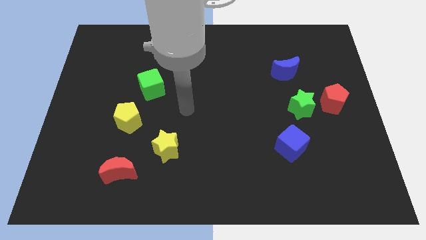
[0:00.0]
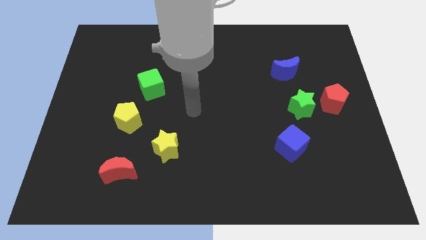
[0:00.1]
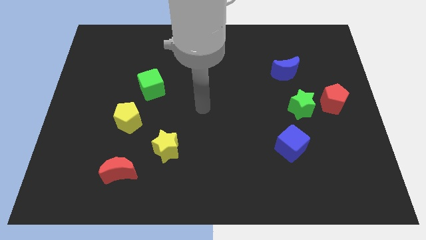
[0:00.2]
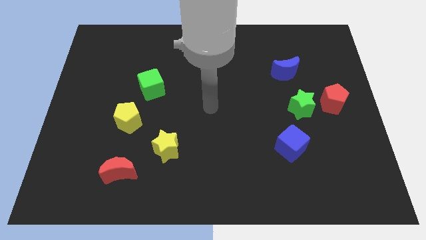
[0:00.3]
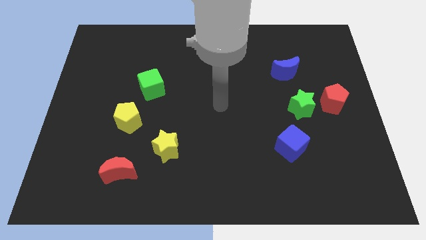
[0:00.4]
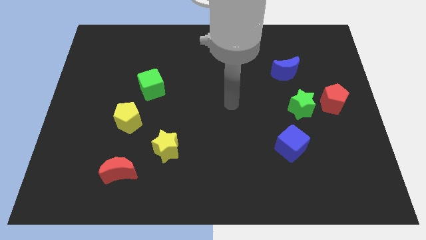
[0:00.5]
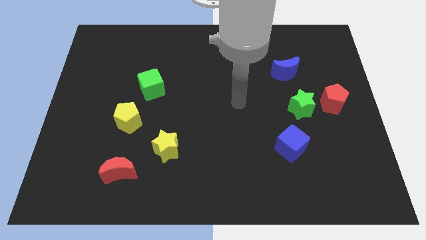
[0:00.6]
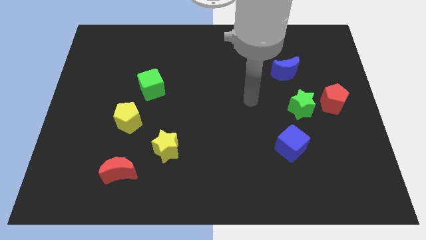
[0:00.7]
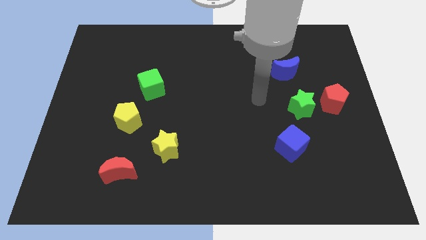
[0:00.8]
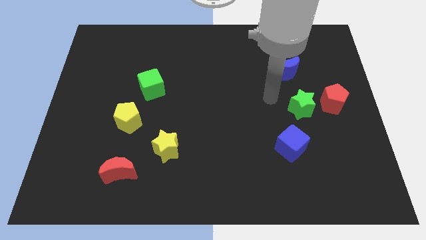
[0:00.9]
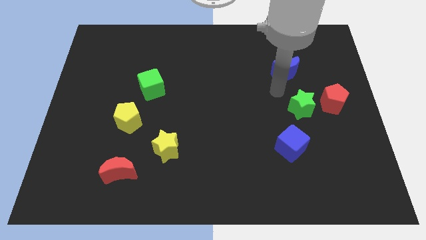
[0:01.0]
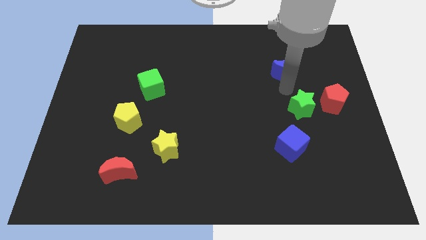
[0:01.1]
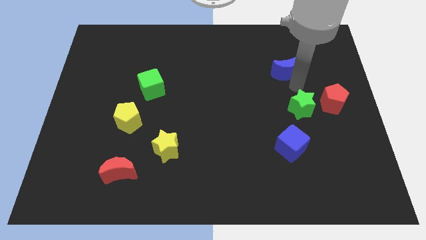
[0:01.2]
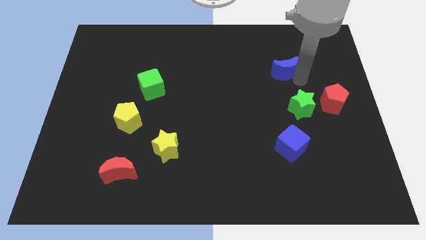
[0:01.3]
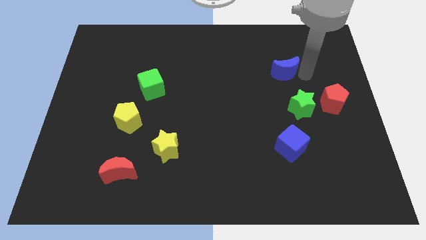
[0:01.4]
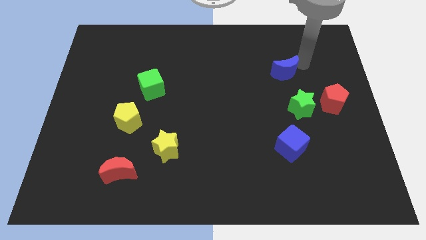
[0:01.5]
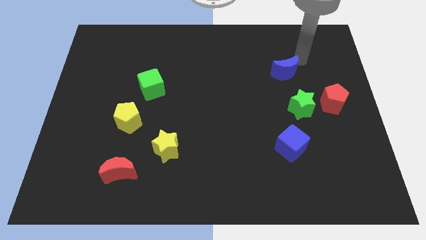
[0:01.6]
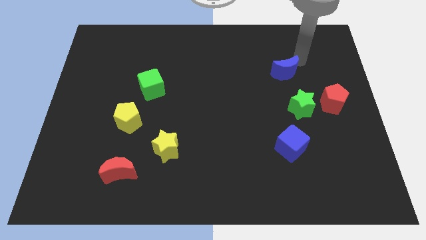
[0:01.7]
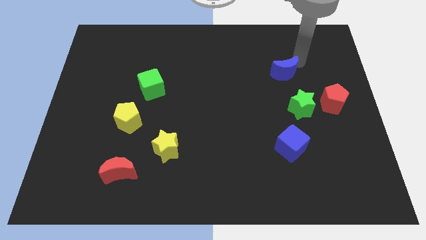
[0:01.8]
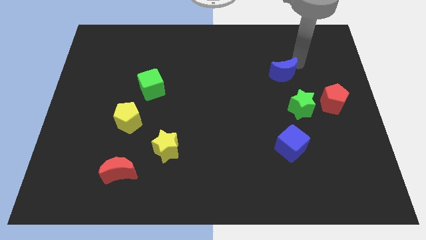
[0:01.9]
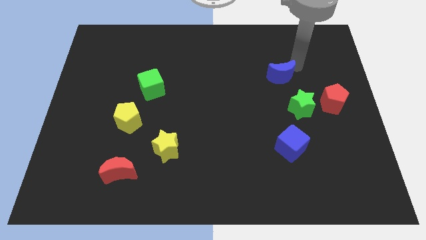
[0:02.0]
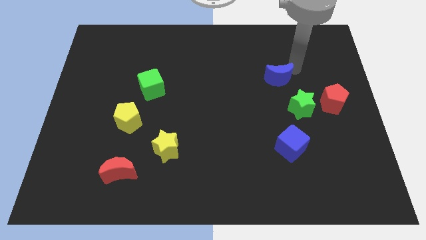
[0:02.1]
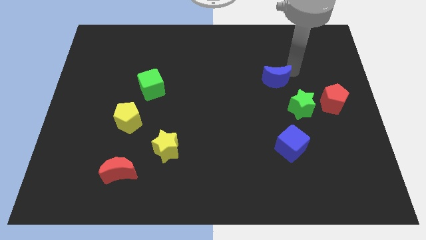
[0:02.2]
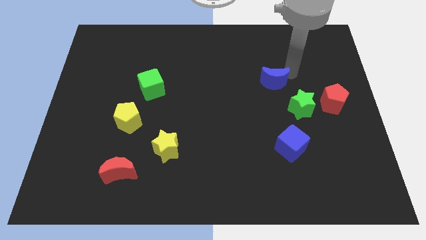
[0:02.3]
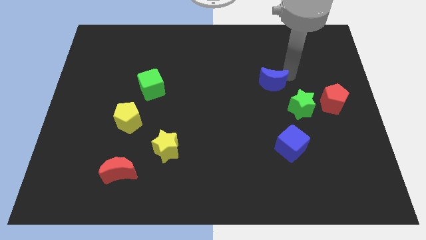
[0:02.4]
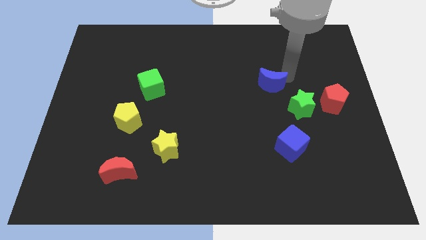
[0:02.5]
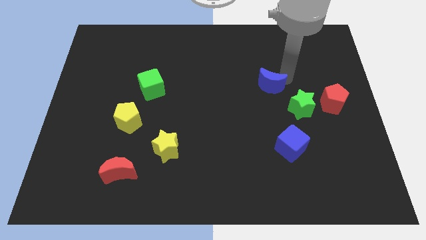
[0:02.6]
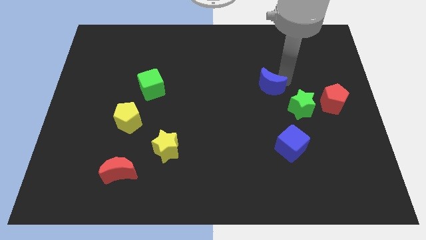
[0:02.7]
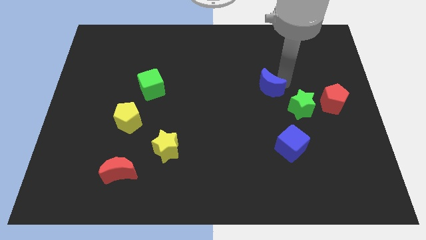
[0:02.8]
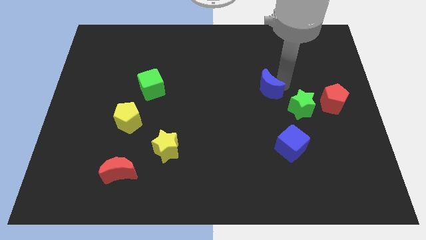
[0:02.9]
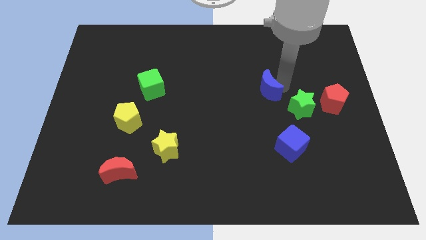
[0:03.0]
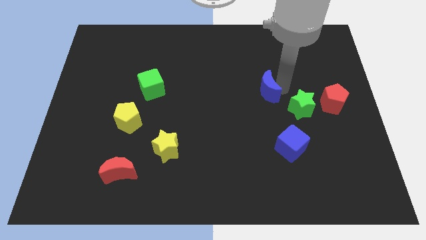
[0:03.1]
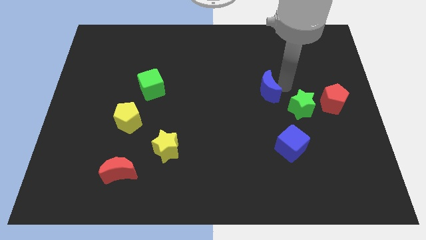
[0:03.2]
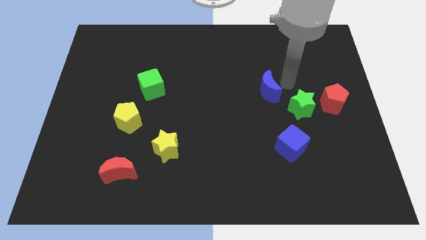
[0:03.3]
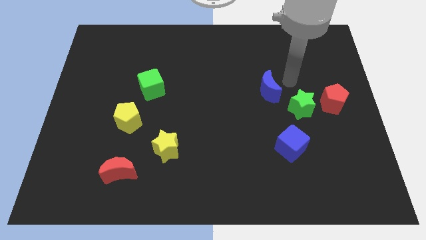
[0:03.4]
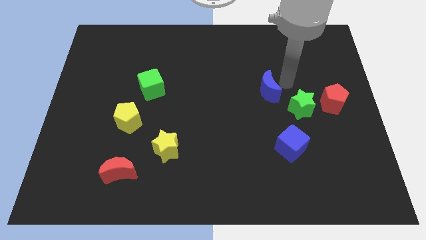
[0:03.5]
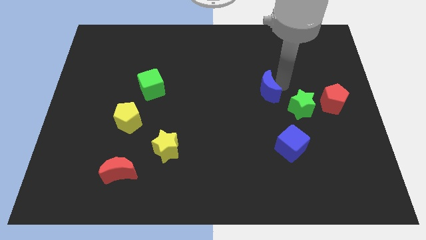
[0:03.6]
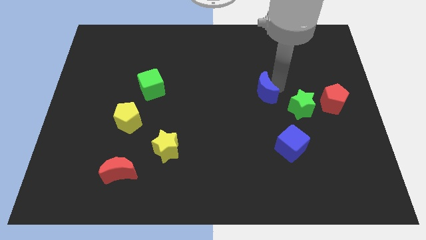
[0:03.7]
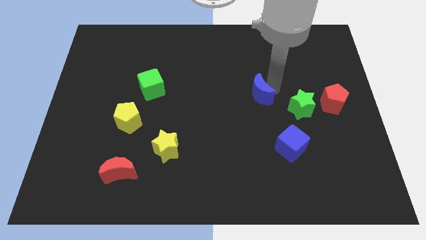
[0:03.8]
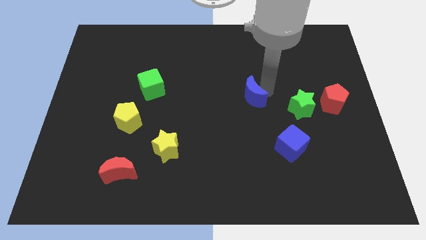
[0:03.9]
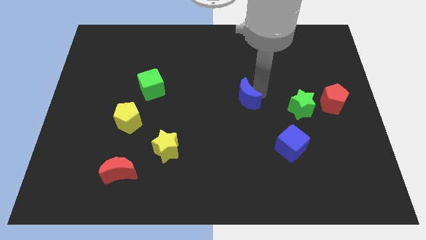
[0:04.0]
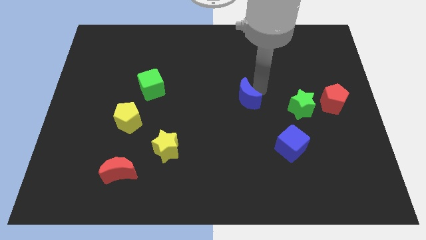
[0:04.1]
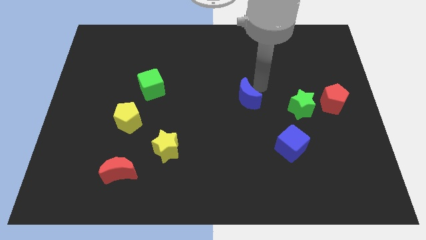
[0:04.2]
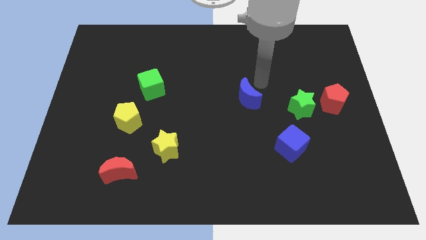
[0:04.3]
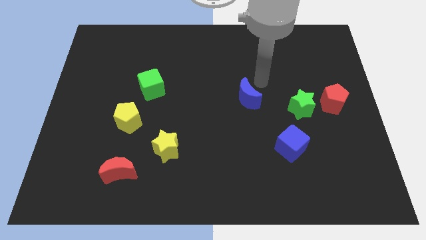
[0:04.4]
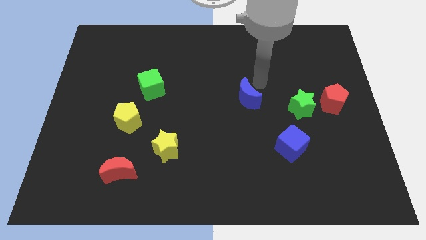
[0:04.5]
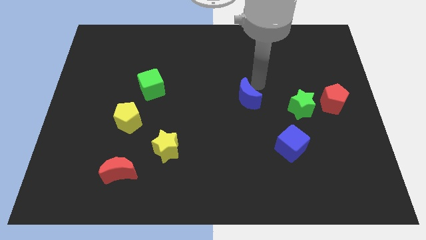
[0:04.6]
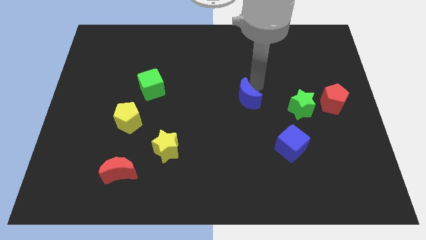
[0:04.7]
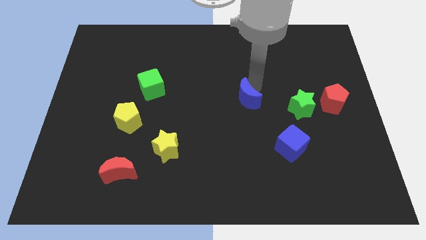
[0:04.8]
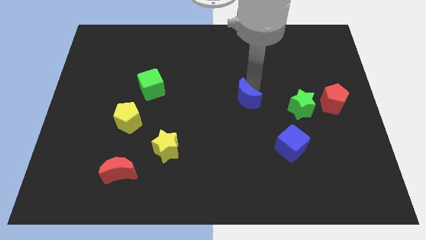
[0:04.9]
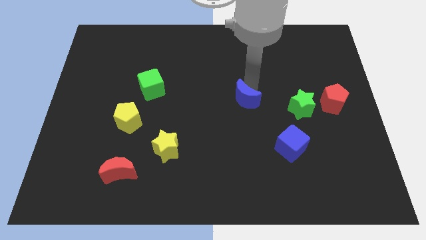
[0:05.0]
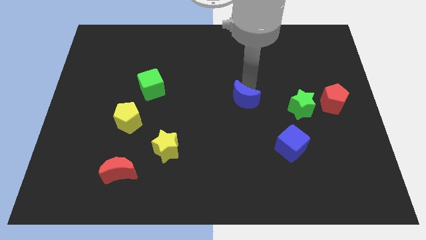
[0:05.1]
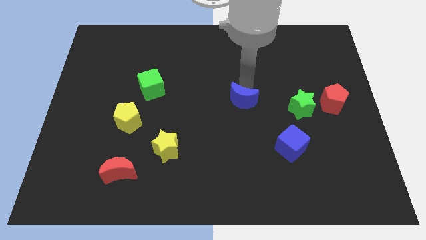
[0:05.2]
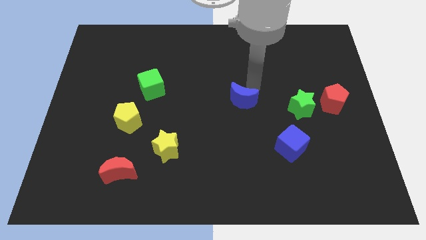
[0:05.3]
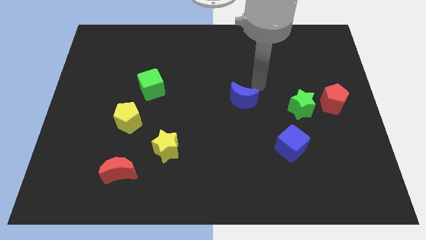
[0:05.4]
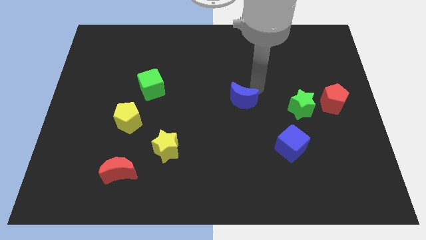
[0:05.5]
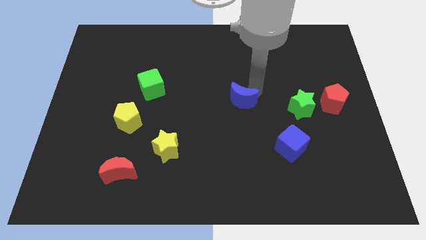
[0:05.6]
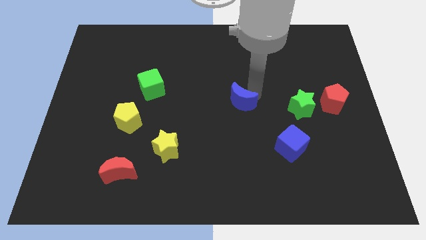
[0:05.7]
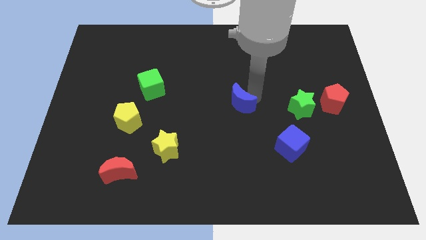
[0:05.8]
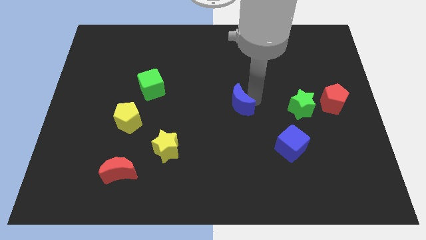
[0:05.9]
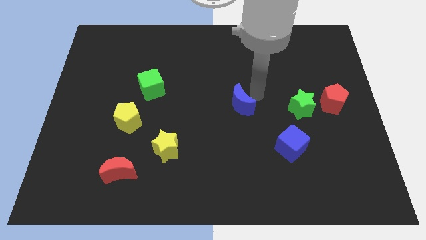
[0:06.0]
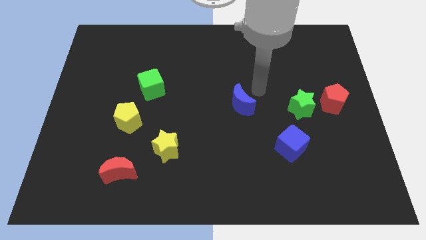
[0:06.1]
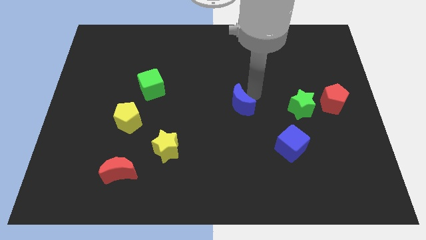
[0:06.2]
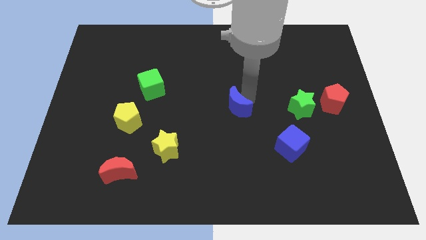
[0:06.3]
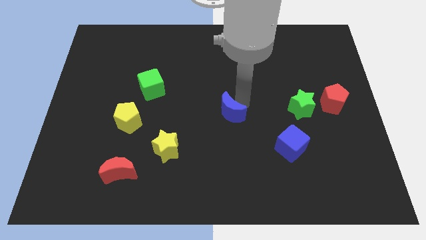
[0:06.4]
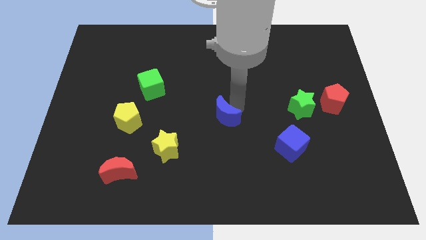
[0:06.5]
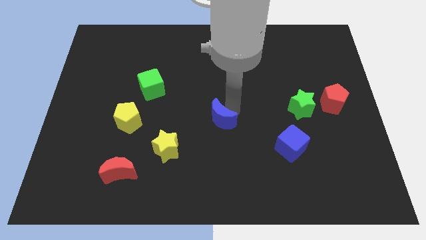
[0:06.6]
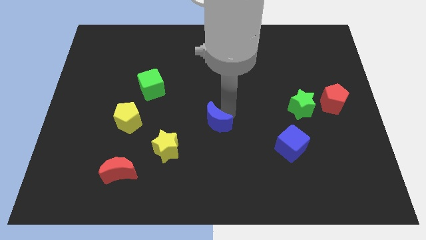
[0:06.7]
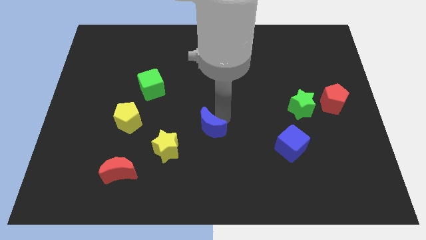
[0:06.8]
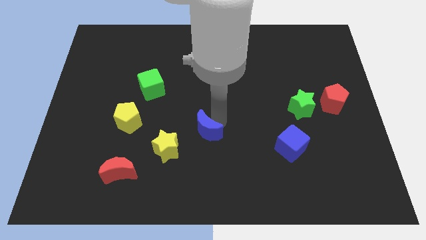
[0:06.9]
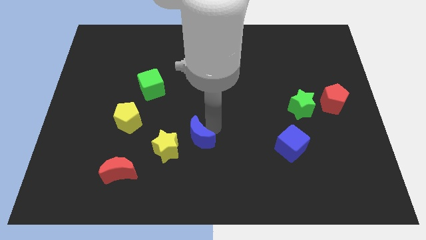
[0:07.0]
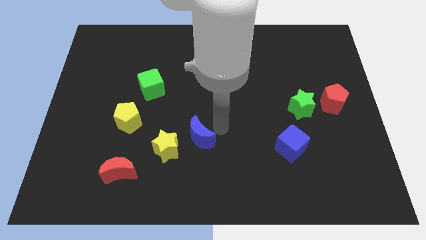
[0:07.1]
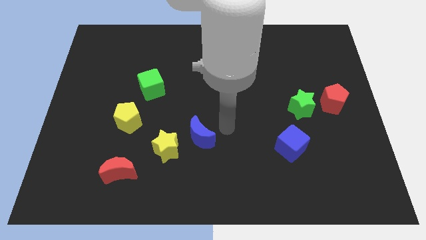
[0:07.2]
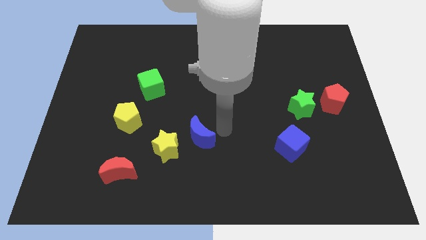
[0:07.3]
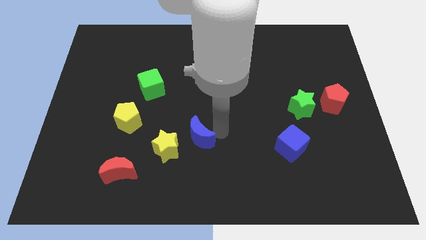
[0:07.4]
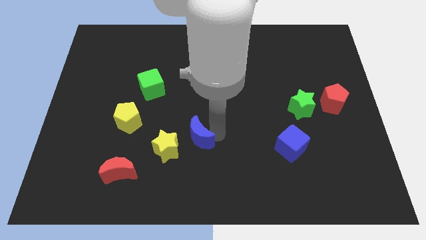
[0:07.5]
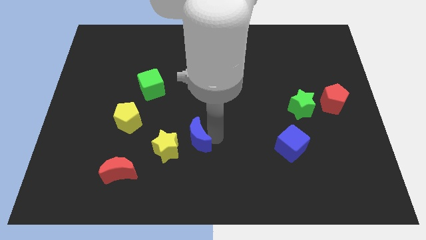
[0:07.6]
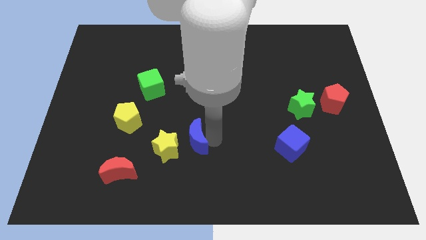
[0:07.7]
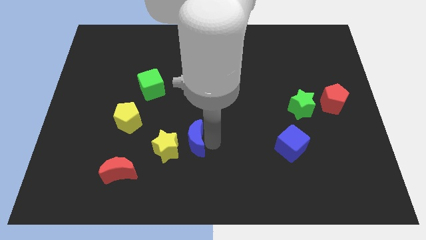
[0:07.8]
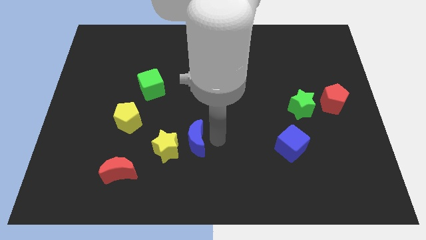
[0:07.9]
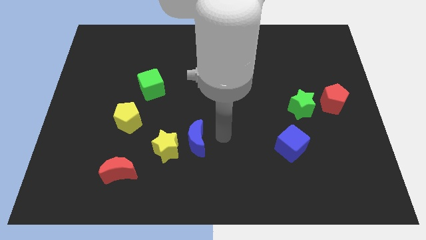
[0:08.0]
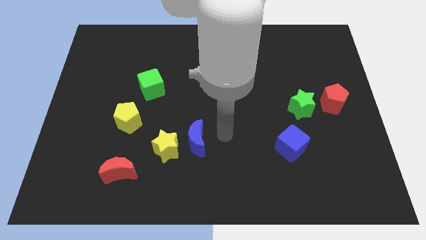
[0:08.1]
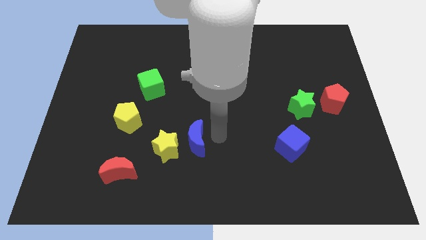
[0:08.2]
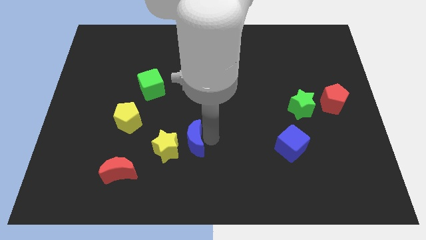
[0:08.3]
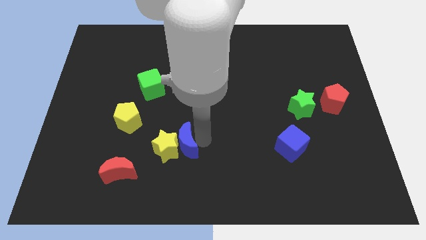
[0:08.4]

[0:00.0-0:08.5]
move the blue moon close to the yellow star
